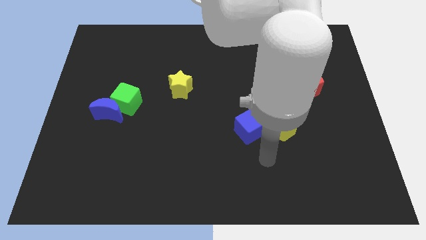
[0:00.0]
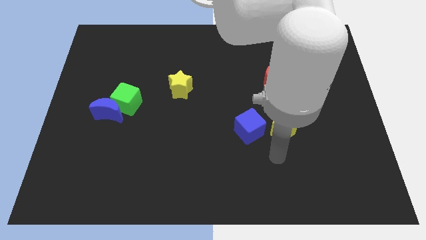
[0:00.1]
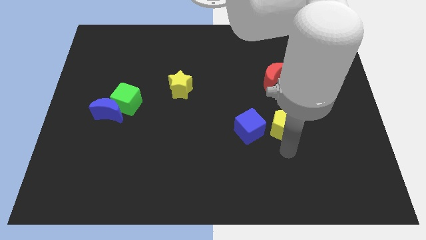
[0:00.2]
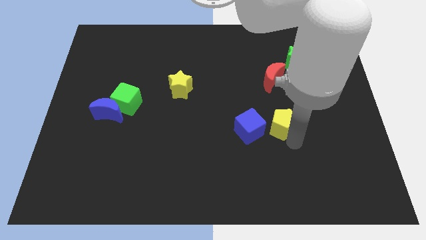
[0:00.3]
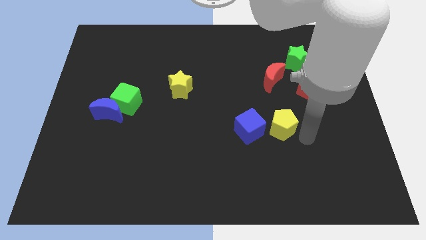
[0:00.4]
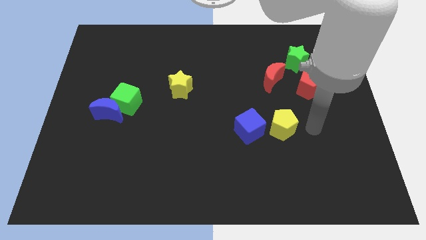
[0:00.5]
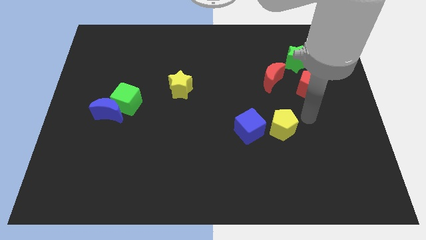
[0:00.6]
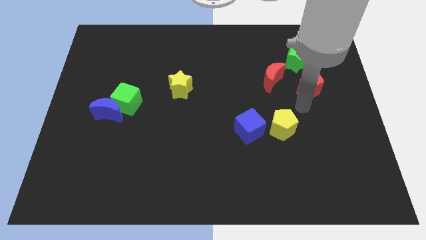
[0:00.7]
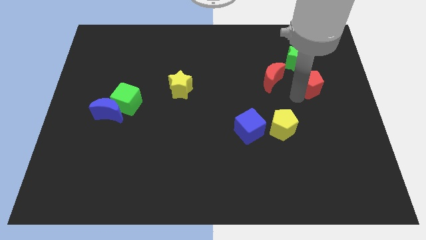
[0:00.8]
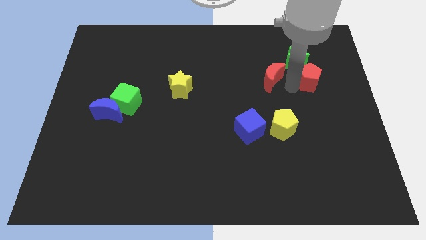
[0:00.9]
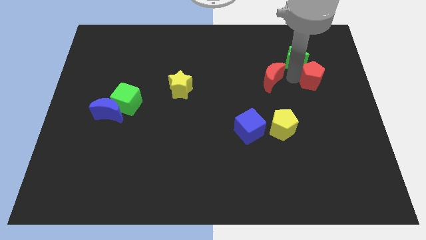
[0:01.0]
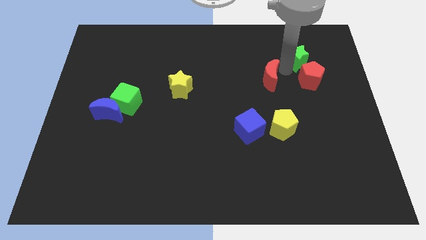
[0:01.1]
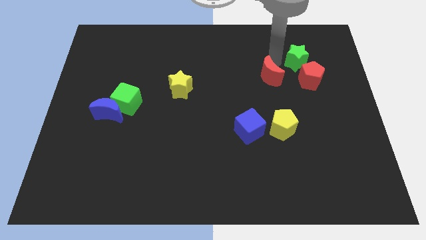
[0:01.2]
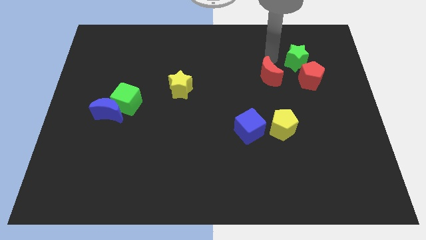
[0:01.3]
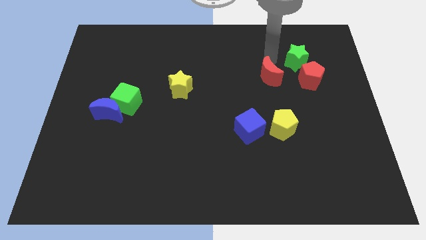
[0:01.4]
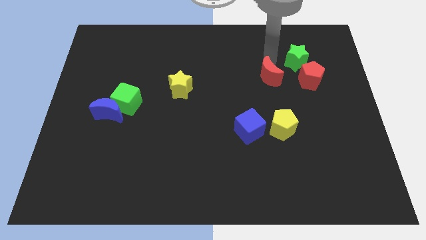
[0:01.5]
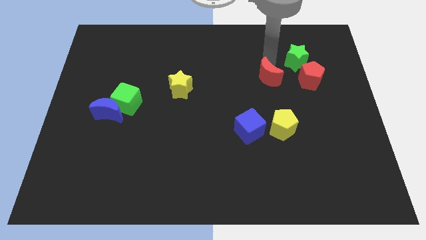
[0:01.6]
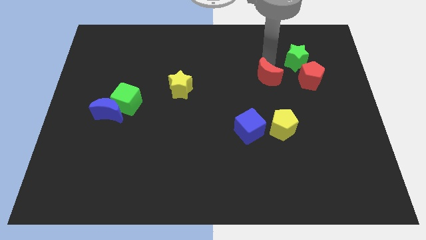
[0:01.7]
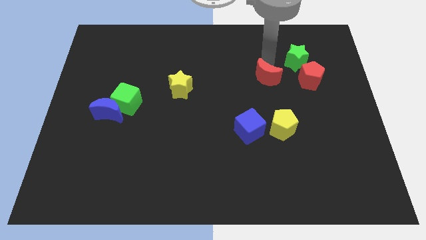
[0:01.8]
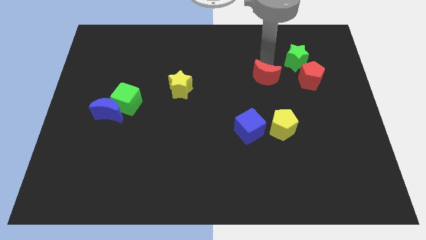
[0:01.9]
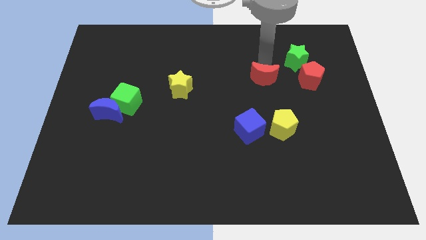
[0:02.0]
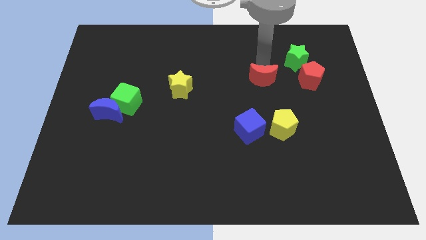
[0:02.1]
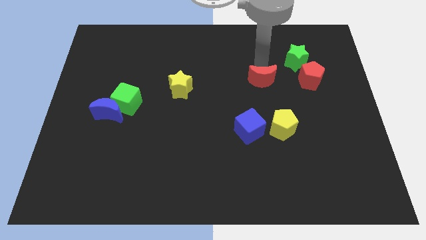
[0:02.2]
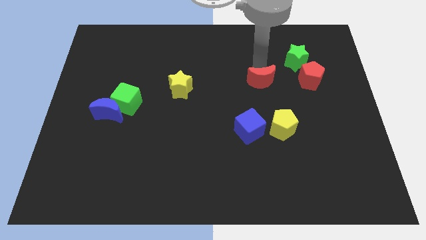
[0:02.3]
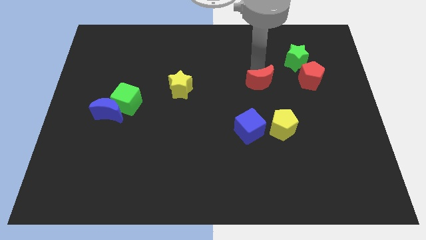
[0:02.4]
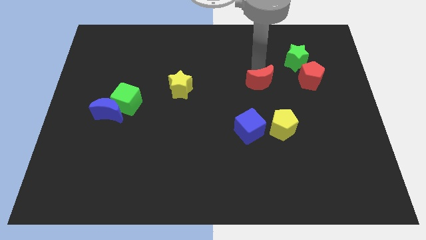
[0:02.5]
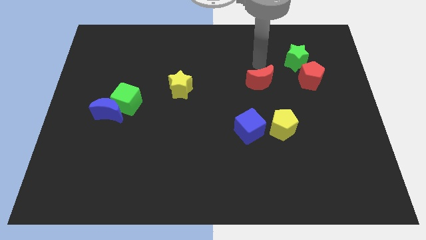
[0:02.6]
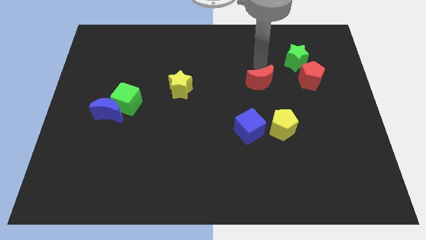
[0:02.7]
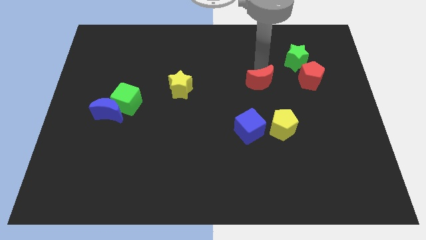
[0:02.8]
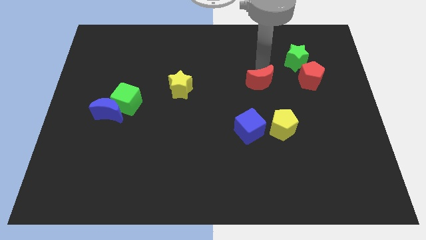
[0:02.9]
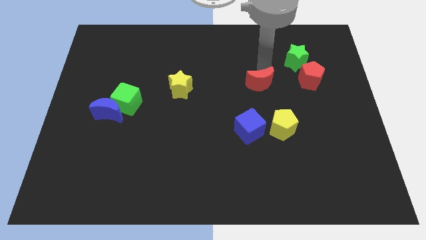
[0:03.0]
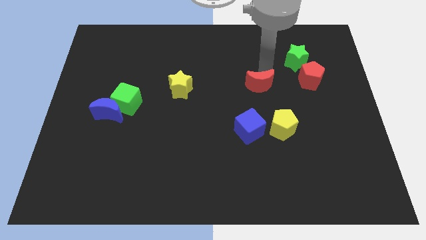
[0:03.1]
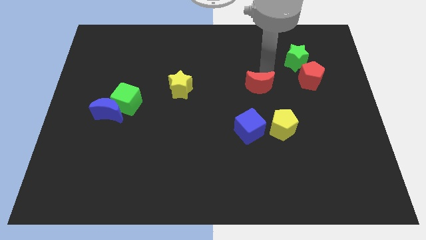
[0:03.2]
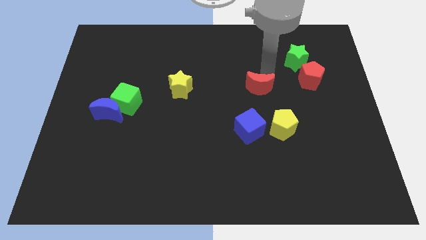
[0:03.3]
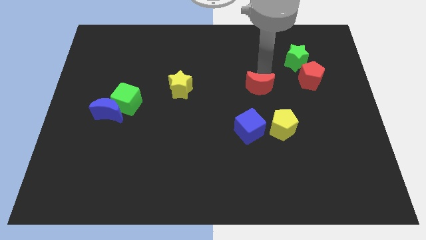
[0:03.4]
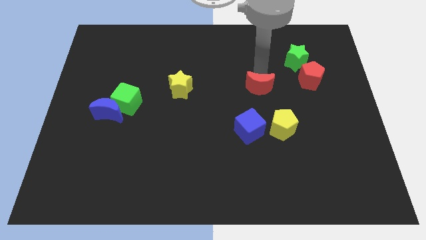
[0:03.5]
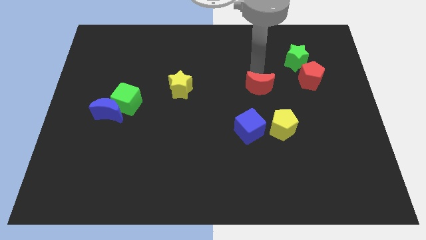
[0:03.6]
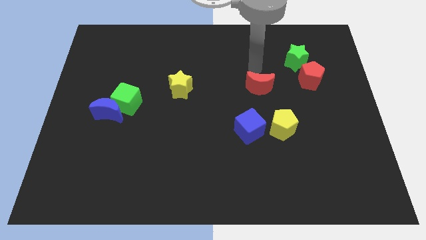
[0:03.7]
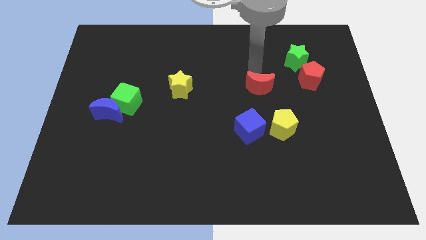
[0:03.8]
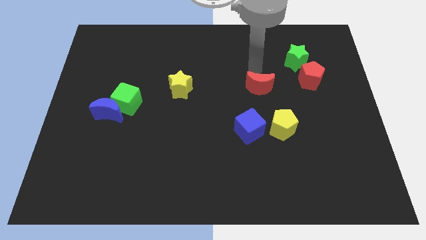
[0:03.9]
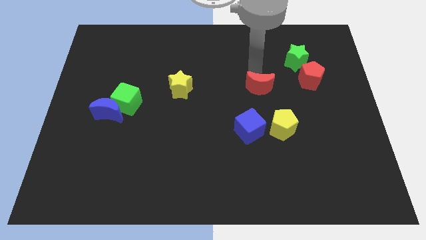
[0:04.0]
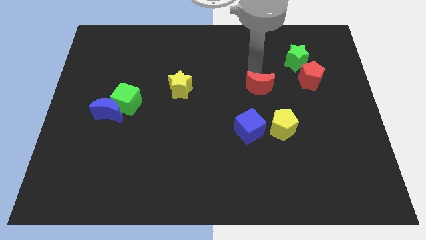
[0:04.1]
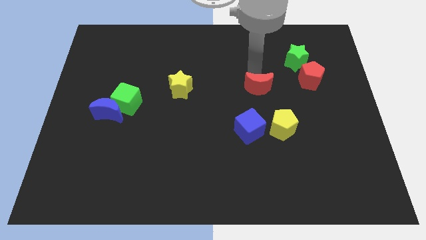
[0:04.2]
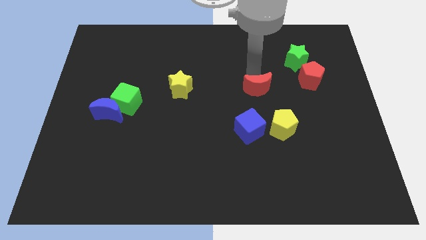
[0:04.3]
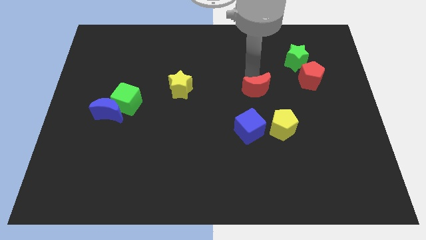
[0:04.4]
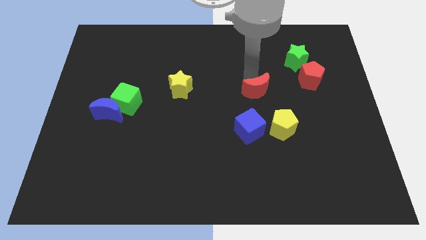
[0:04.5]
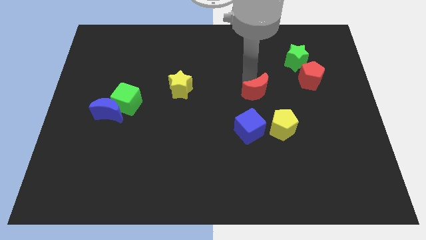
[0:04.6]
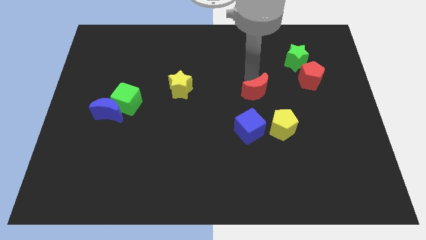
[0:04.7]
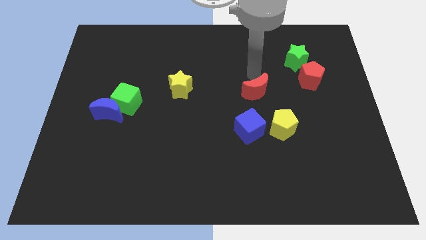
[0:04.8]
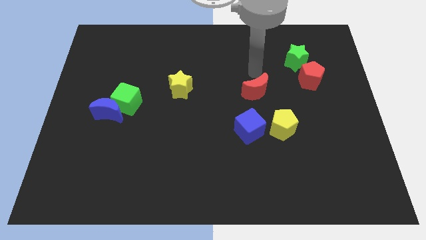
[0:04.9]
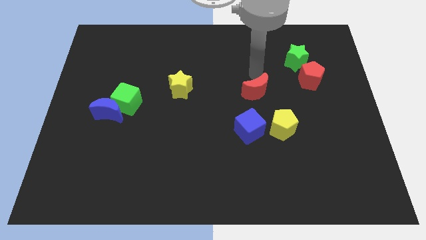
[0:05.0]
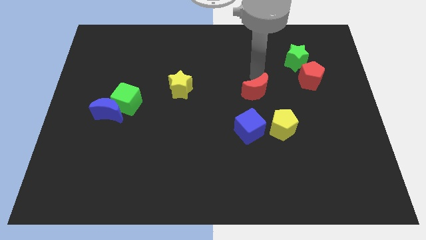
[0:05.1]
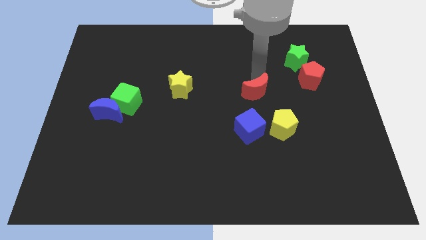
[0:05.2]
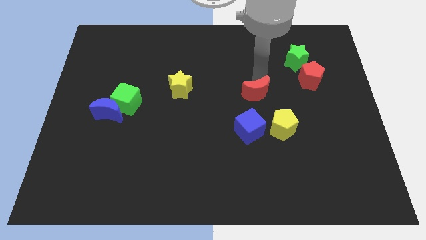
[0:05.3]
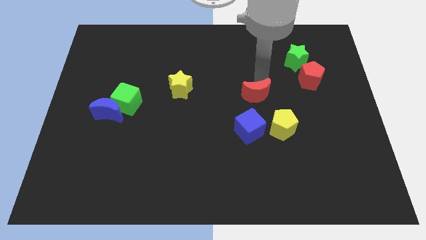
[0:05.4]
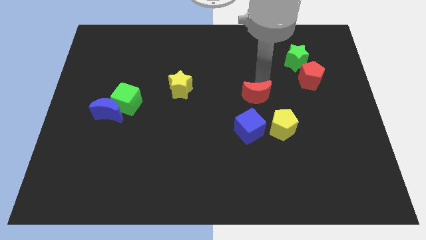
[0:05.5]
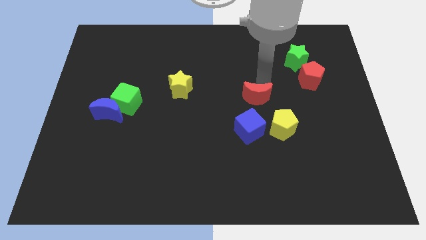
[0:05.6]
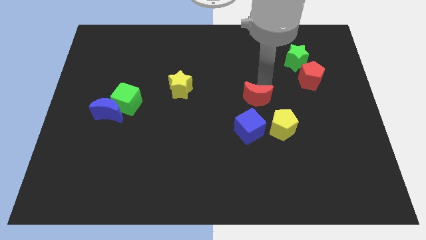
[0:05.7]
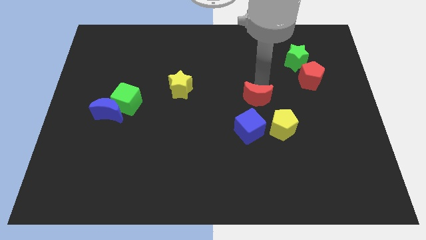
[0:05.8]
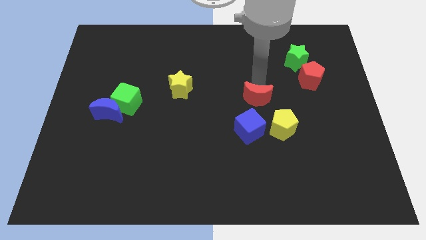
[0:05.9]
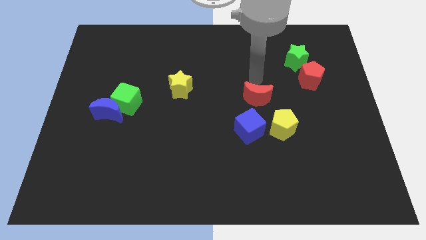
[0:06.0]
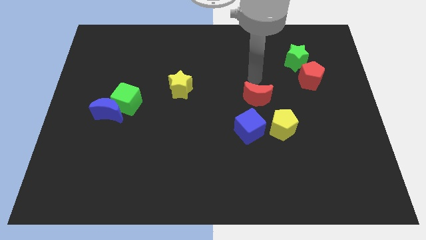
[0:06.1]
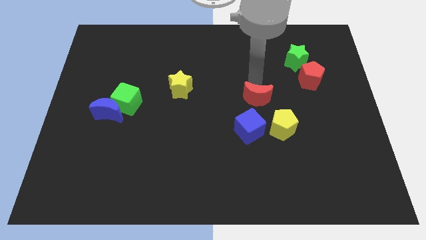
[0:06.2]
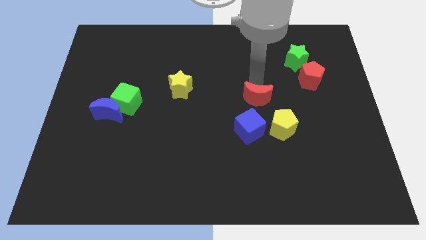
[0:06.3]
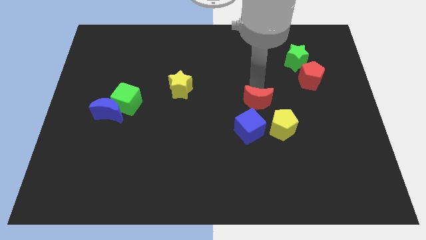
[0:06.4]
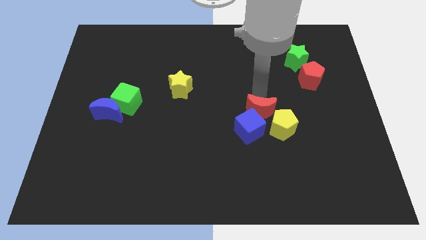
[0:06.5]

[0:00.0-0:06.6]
push the red moon towards the blue cube
